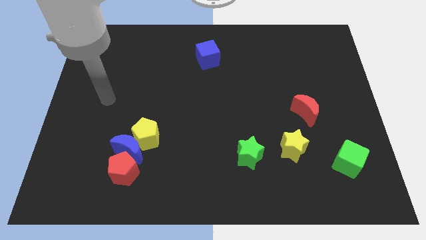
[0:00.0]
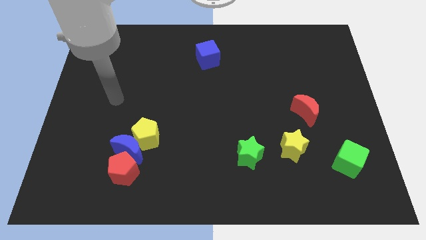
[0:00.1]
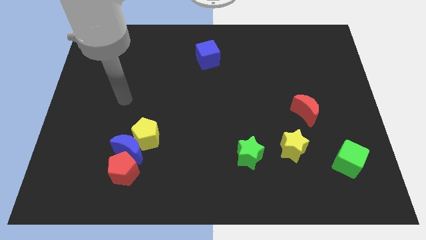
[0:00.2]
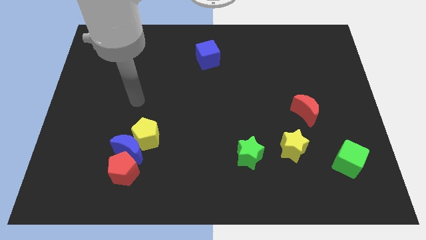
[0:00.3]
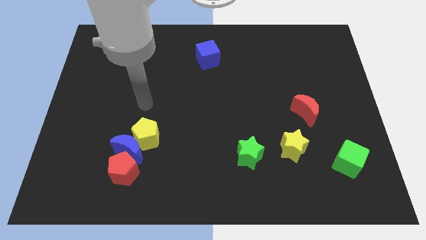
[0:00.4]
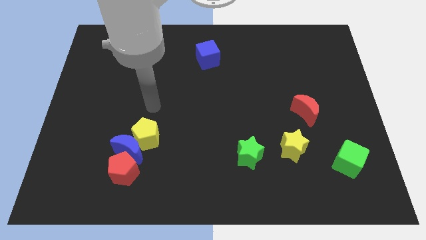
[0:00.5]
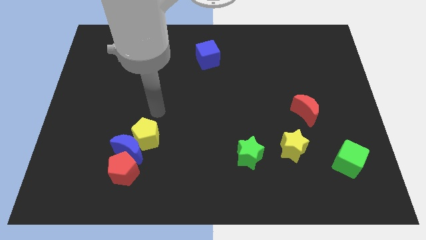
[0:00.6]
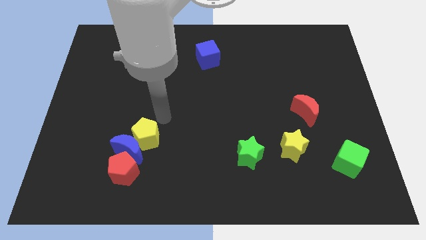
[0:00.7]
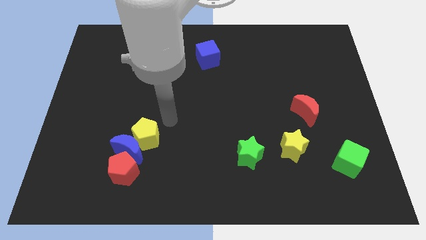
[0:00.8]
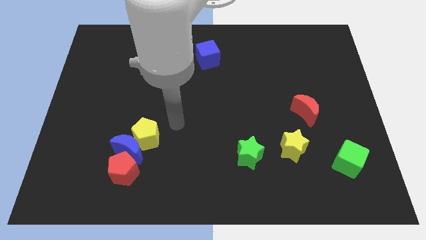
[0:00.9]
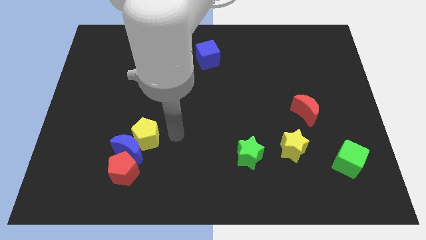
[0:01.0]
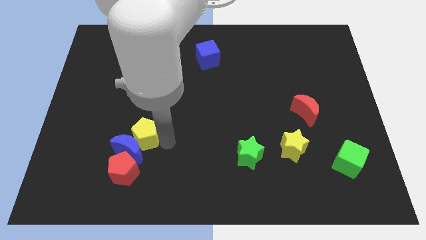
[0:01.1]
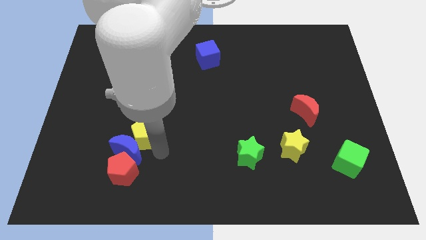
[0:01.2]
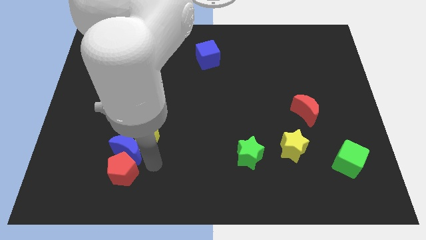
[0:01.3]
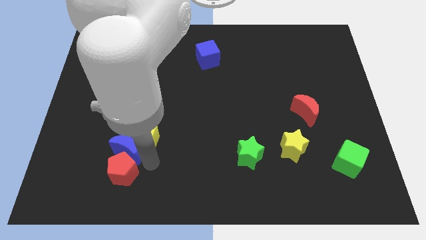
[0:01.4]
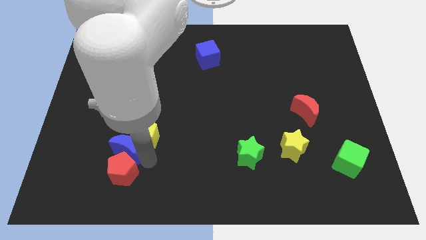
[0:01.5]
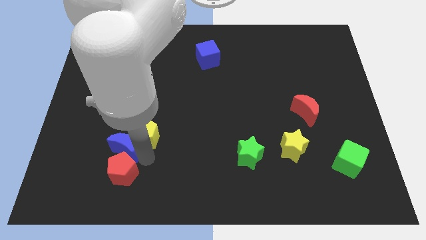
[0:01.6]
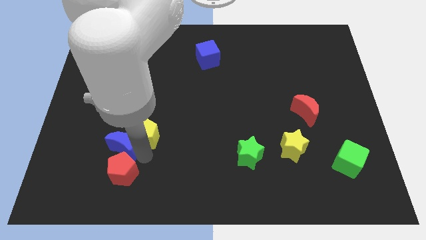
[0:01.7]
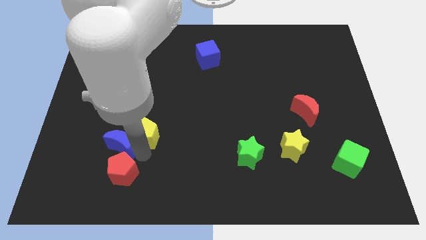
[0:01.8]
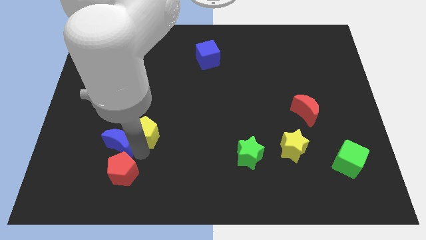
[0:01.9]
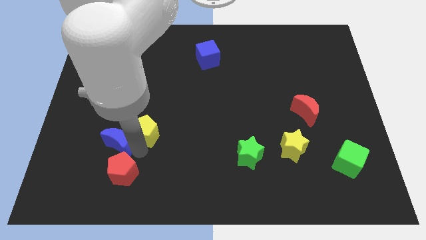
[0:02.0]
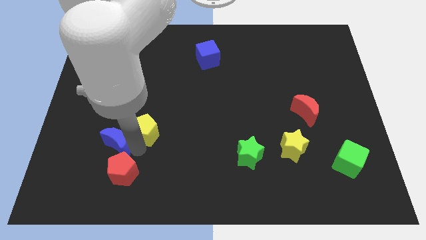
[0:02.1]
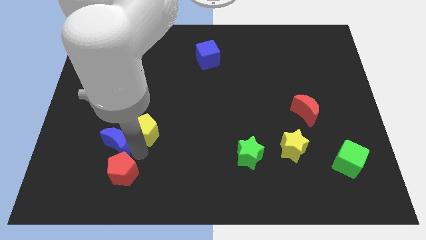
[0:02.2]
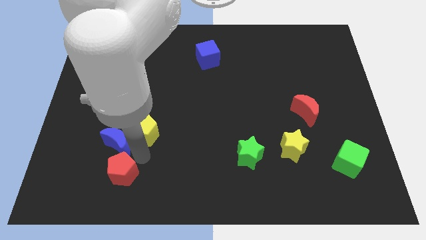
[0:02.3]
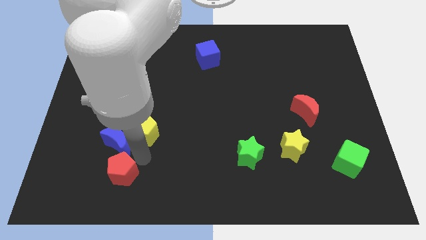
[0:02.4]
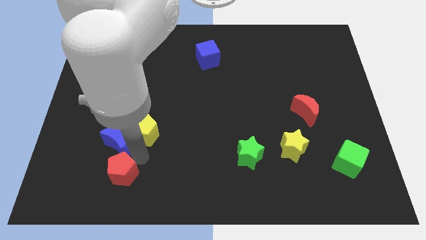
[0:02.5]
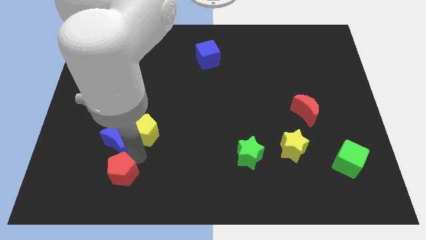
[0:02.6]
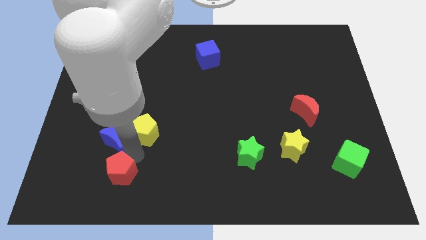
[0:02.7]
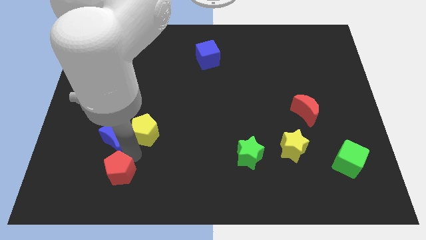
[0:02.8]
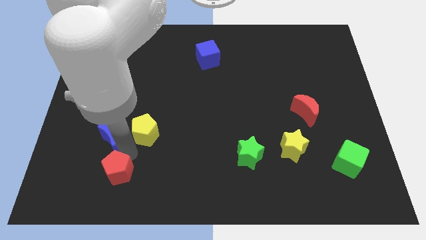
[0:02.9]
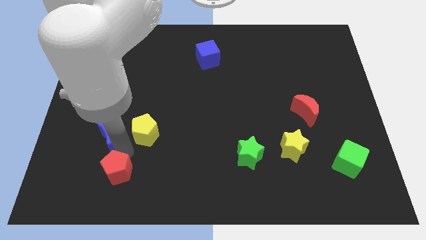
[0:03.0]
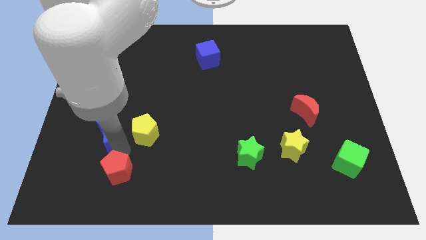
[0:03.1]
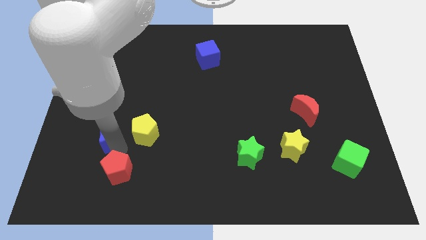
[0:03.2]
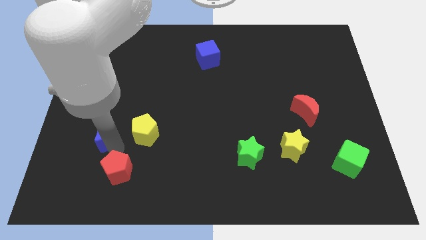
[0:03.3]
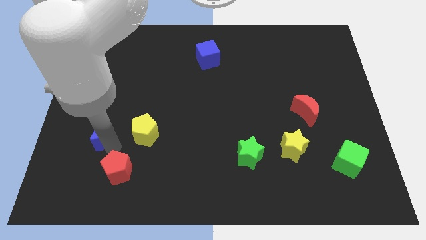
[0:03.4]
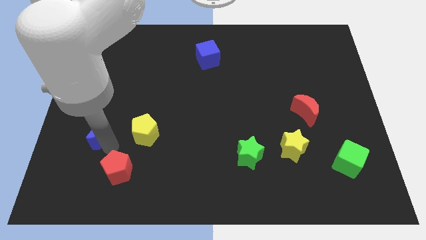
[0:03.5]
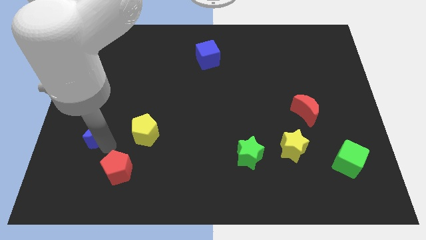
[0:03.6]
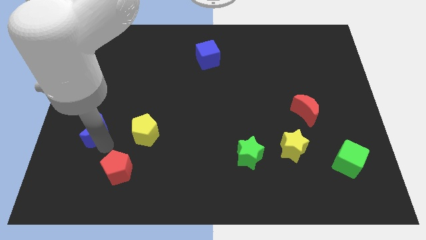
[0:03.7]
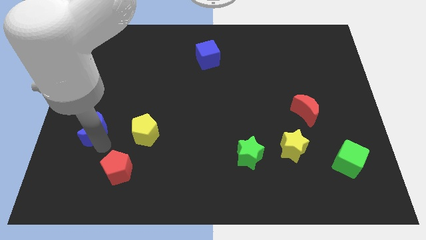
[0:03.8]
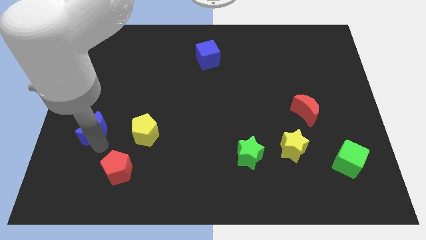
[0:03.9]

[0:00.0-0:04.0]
move the blue moon away from the yellow pentagon and red pentagon

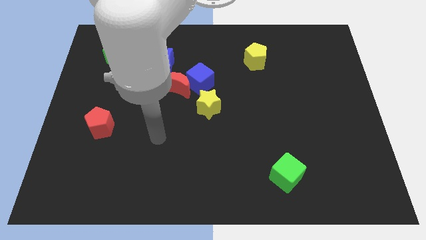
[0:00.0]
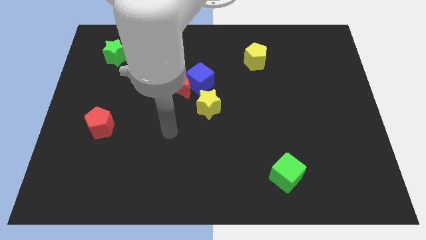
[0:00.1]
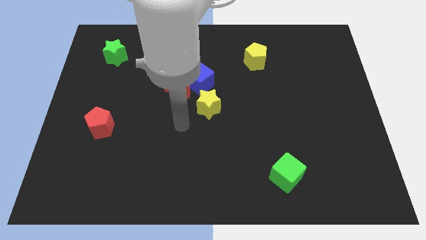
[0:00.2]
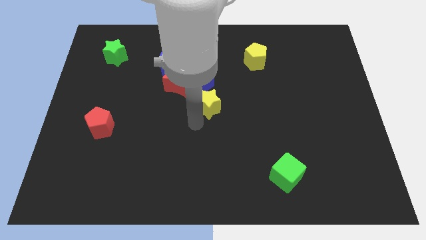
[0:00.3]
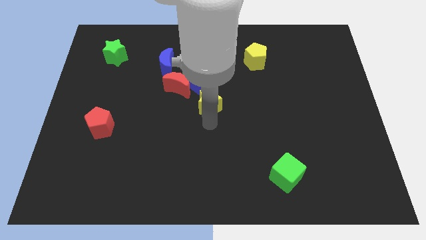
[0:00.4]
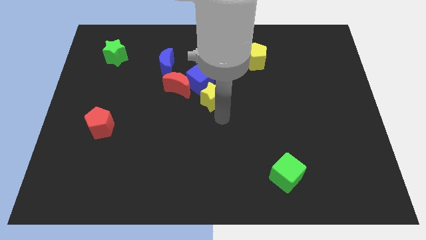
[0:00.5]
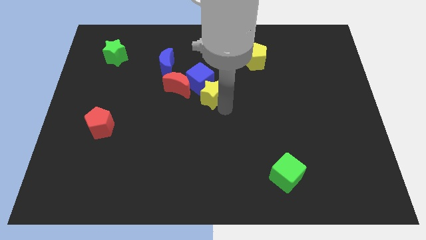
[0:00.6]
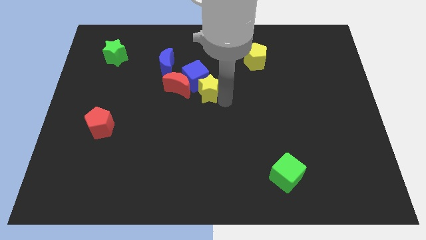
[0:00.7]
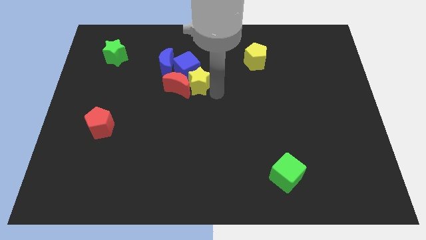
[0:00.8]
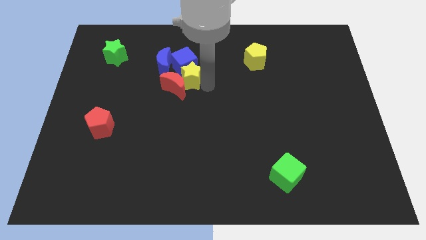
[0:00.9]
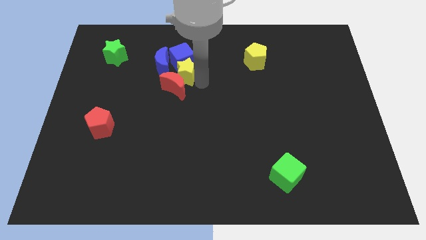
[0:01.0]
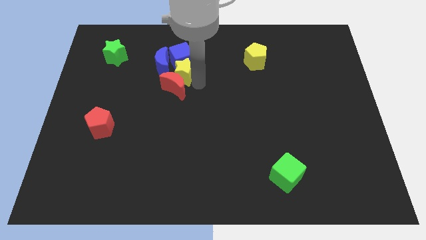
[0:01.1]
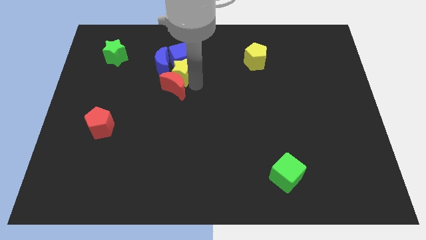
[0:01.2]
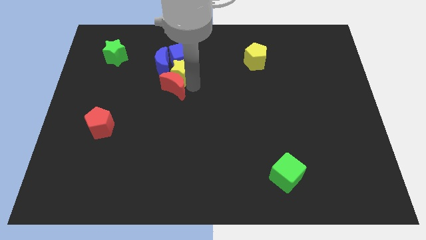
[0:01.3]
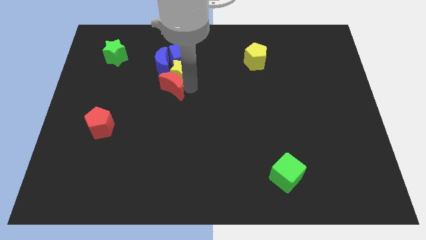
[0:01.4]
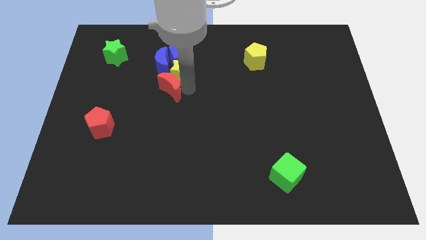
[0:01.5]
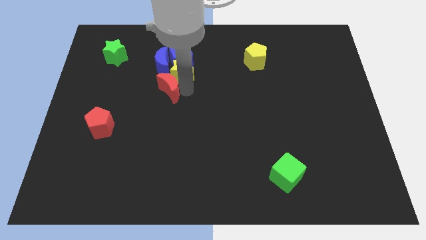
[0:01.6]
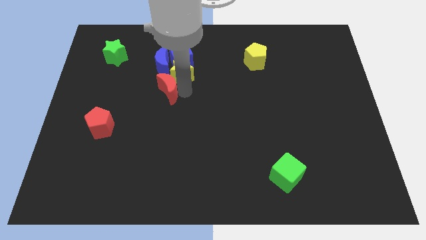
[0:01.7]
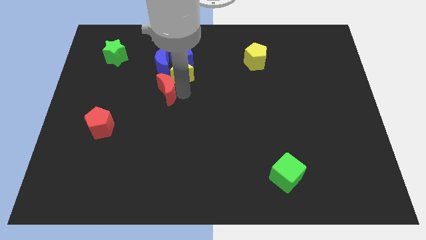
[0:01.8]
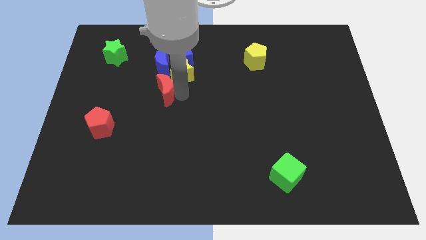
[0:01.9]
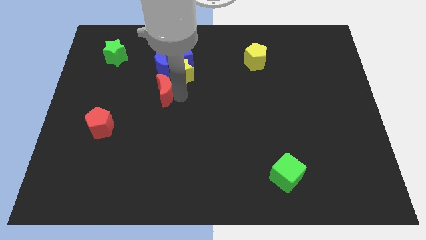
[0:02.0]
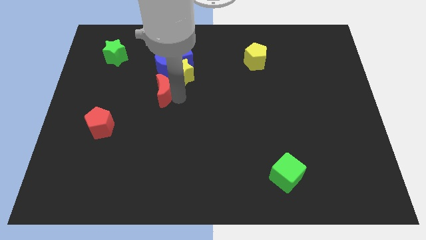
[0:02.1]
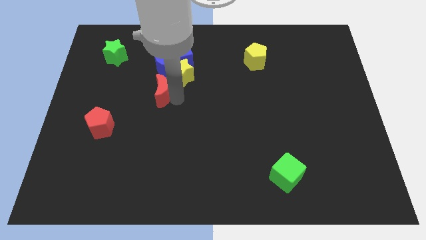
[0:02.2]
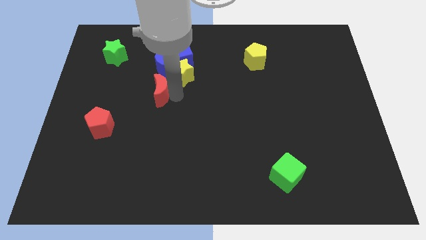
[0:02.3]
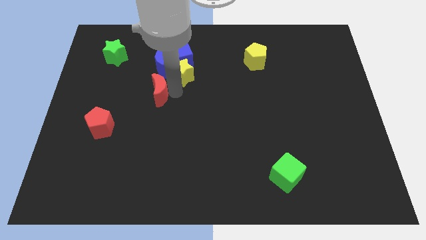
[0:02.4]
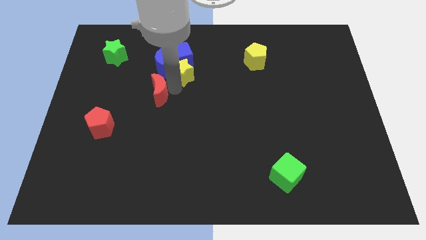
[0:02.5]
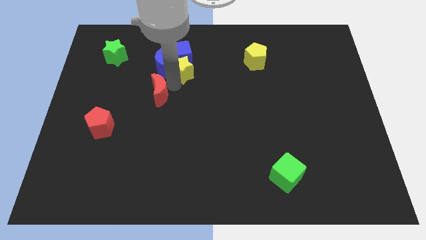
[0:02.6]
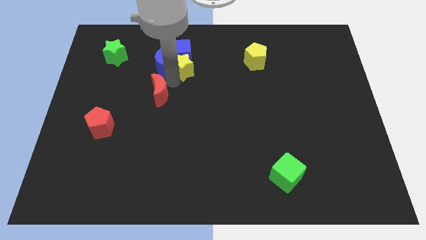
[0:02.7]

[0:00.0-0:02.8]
move the red moon away from the clump

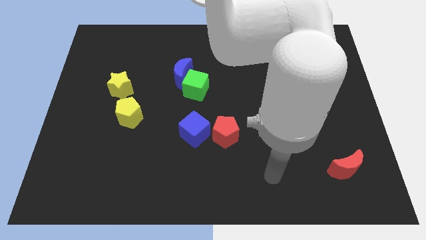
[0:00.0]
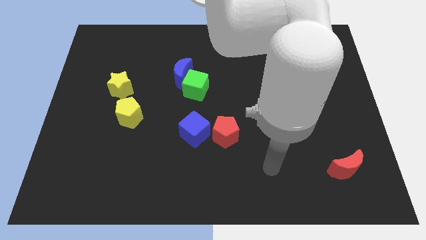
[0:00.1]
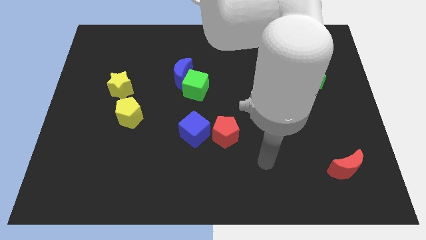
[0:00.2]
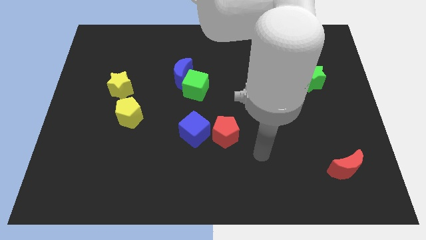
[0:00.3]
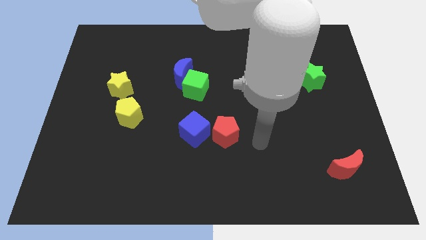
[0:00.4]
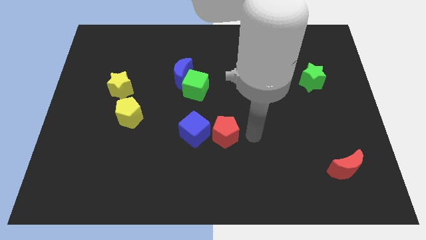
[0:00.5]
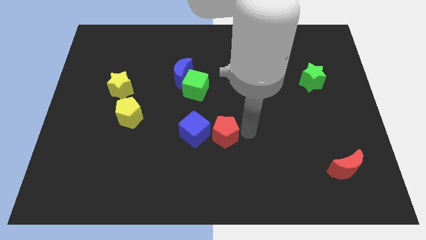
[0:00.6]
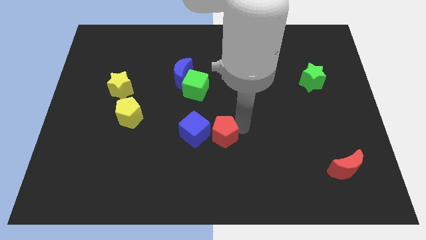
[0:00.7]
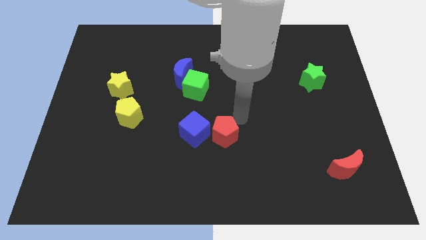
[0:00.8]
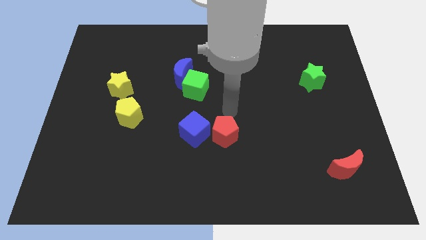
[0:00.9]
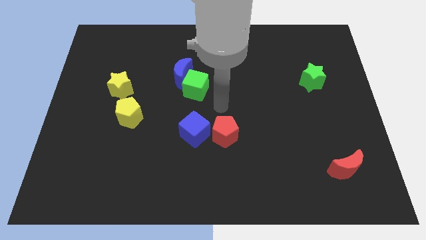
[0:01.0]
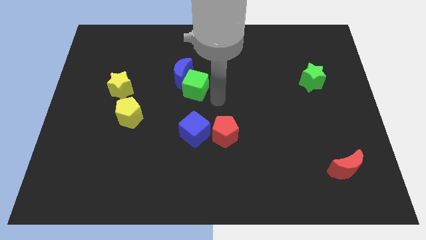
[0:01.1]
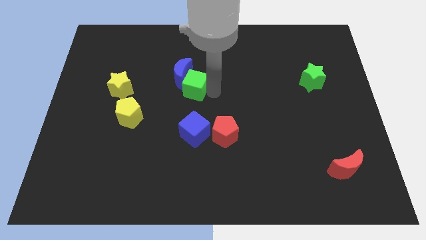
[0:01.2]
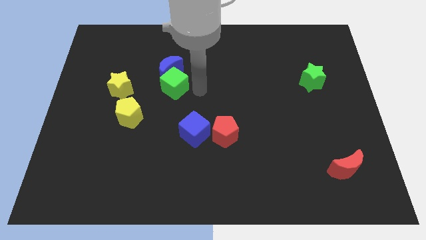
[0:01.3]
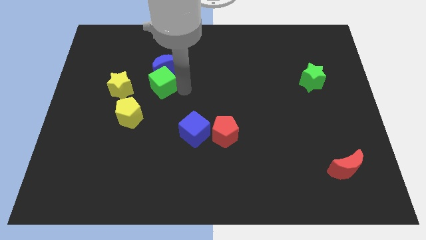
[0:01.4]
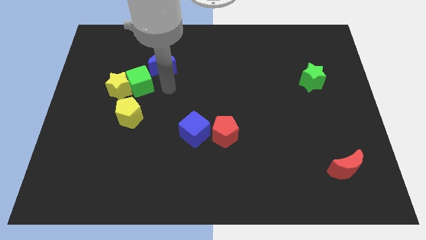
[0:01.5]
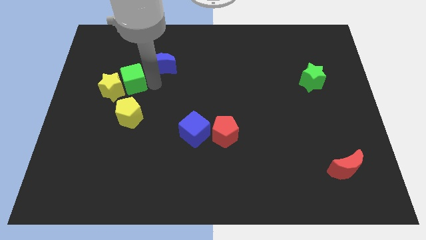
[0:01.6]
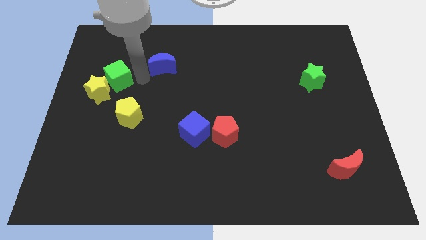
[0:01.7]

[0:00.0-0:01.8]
move the blue moon away from the green cube

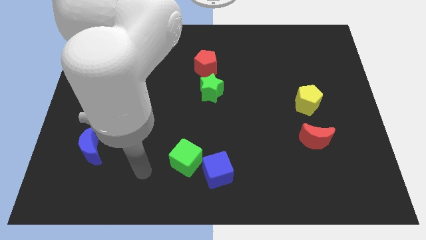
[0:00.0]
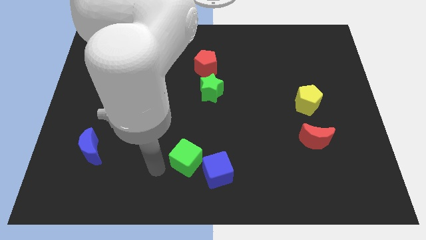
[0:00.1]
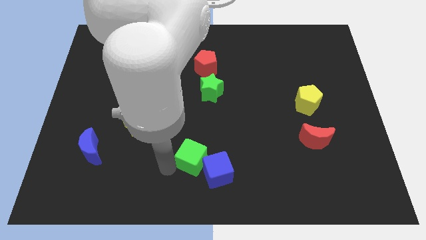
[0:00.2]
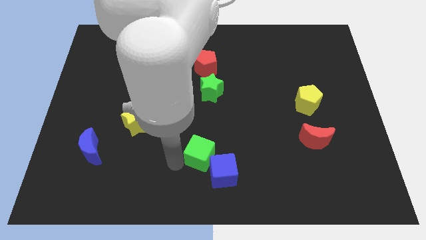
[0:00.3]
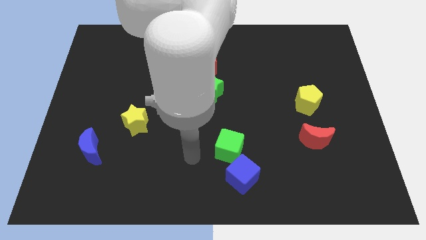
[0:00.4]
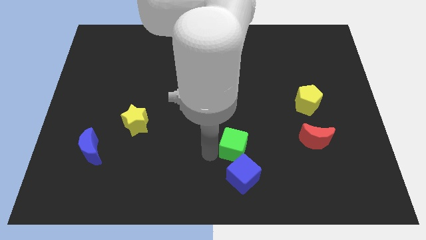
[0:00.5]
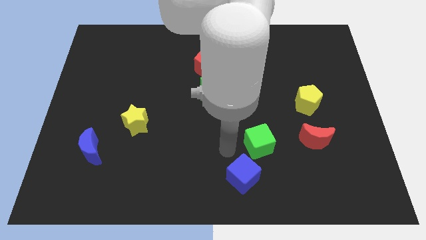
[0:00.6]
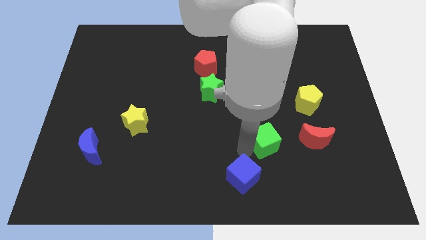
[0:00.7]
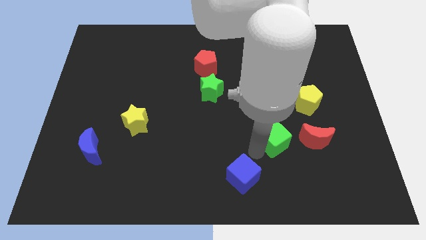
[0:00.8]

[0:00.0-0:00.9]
move the blue cube away from the green cube
